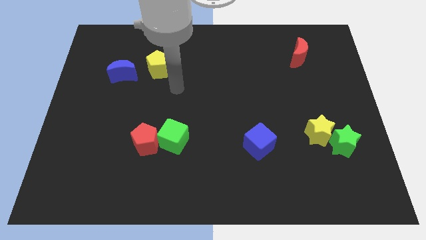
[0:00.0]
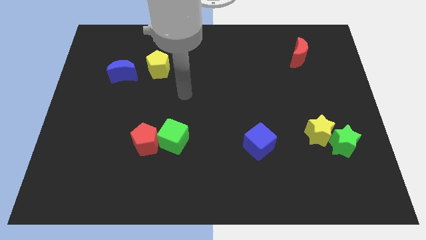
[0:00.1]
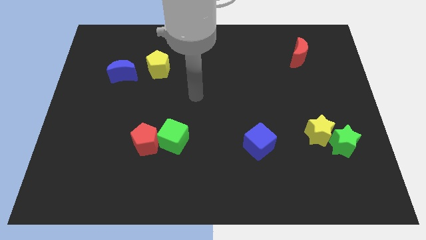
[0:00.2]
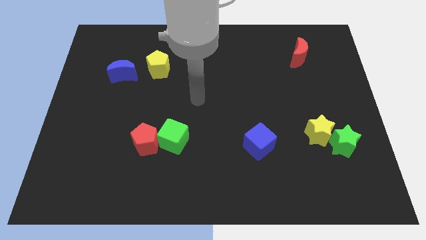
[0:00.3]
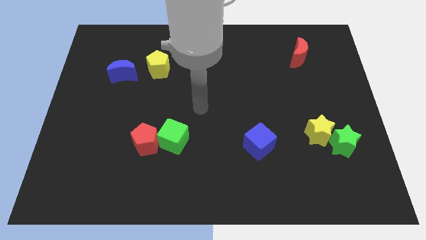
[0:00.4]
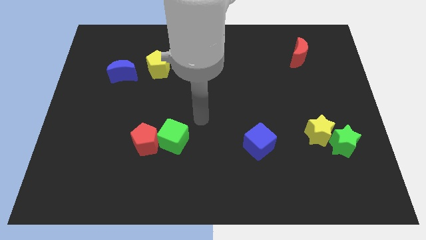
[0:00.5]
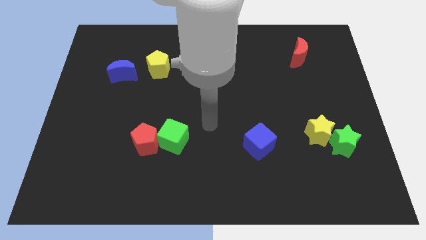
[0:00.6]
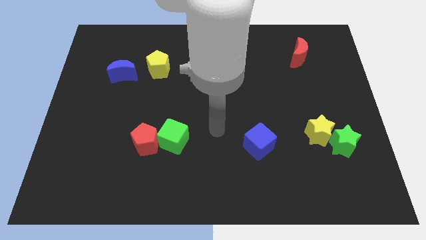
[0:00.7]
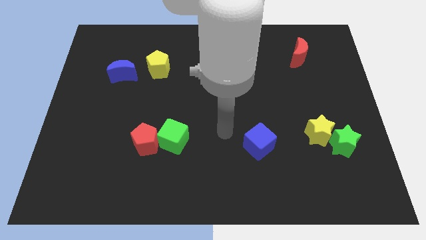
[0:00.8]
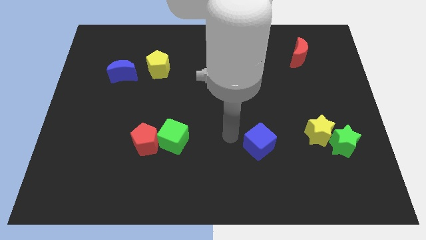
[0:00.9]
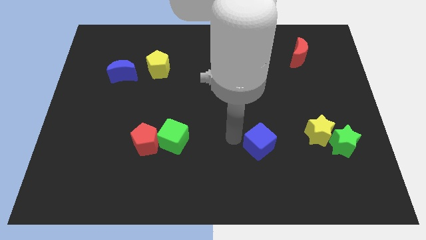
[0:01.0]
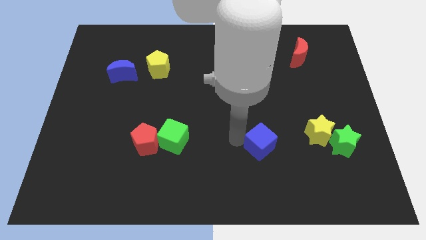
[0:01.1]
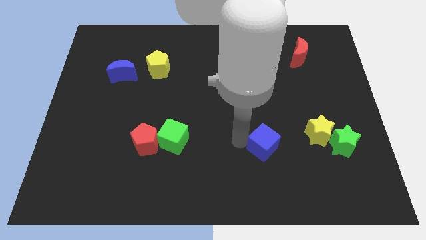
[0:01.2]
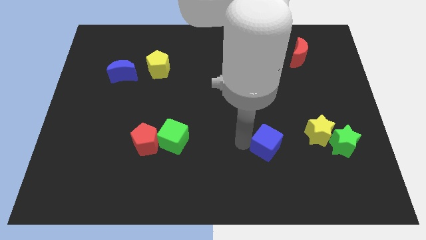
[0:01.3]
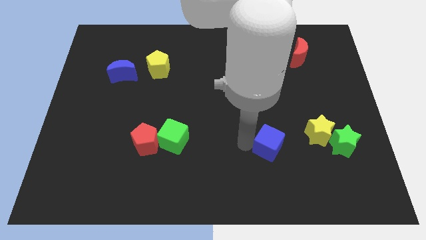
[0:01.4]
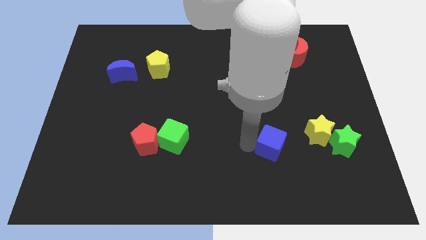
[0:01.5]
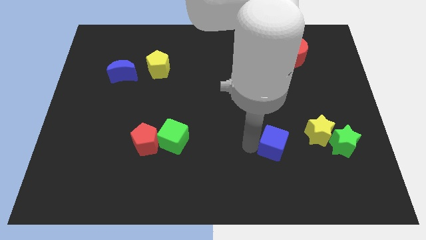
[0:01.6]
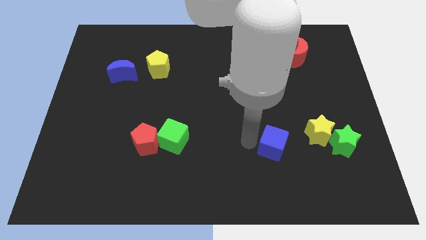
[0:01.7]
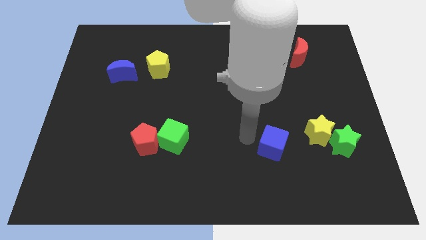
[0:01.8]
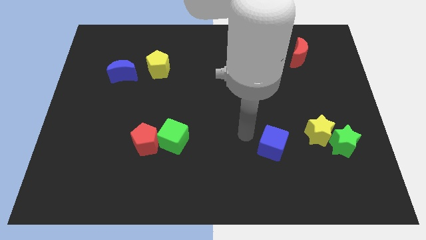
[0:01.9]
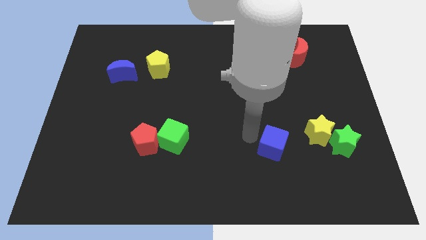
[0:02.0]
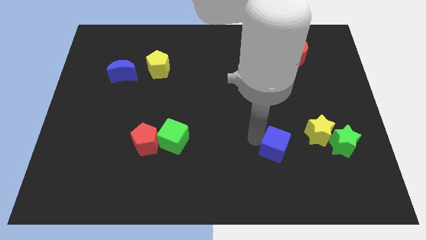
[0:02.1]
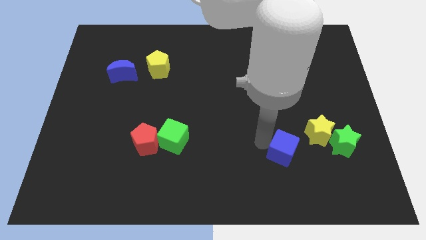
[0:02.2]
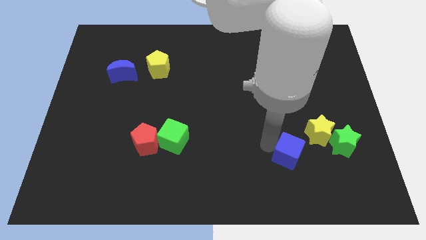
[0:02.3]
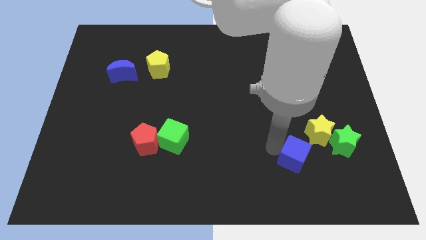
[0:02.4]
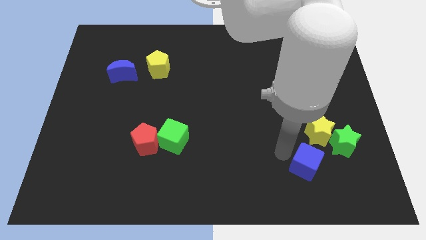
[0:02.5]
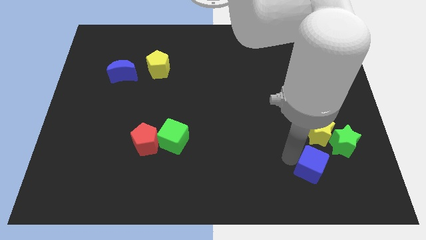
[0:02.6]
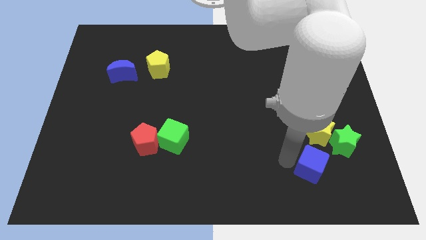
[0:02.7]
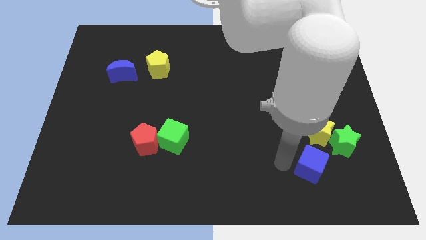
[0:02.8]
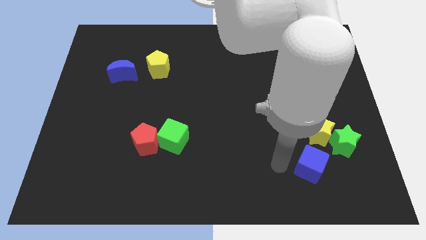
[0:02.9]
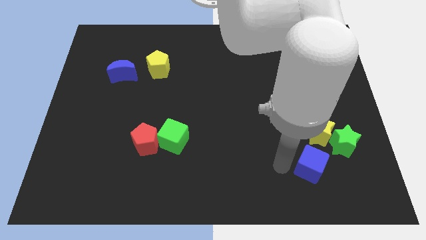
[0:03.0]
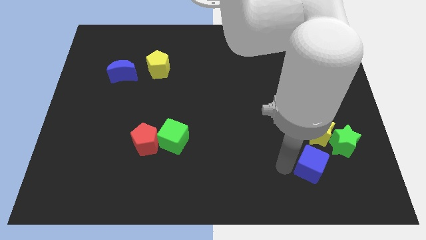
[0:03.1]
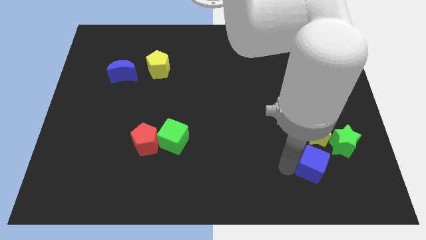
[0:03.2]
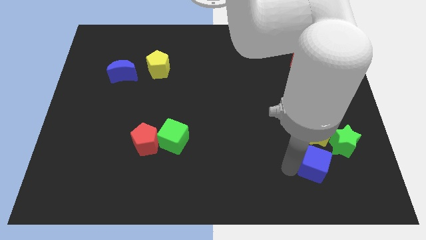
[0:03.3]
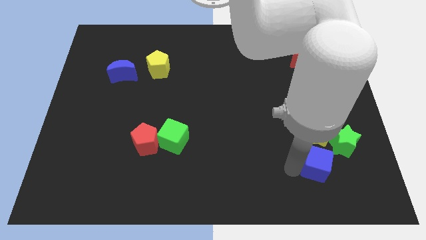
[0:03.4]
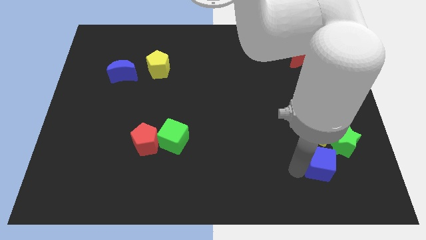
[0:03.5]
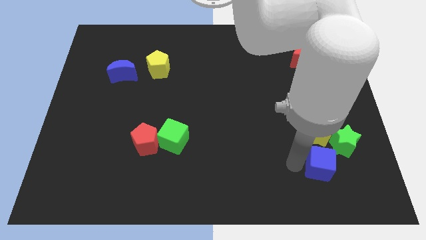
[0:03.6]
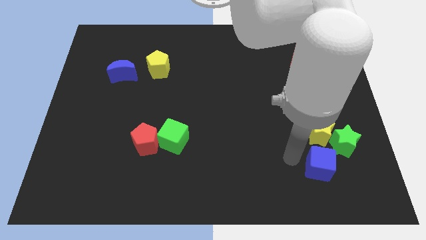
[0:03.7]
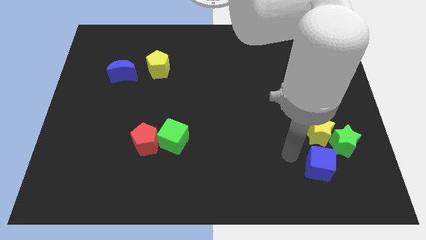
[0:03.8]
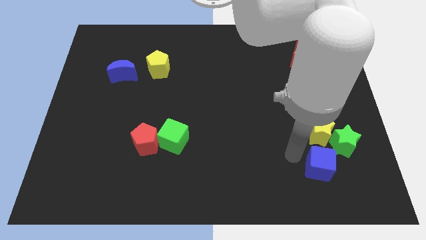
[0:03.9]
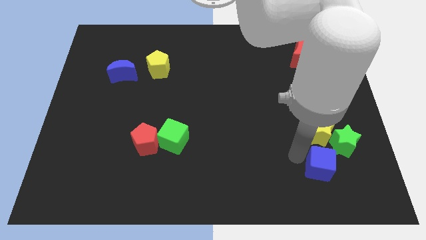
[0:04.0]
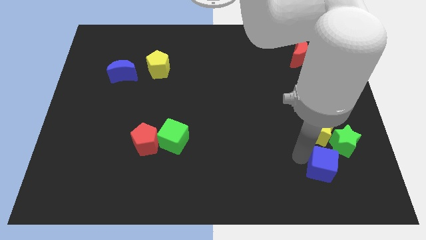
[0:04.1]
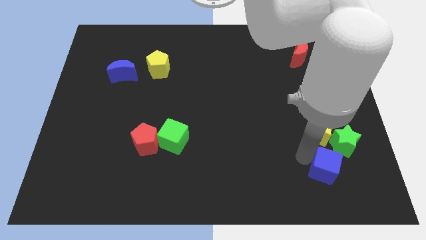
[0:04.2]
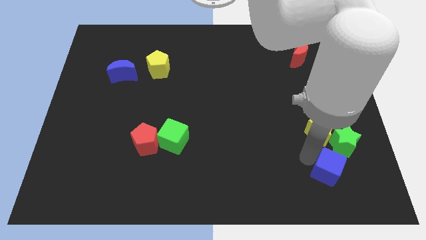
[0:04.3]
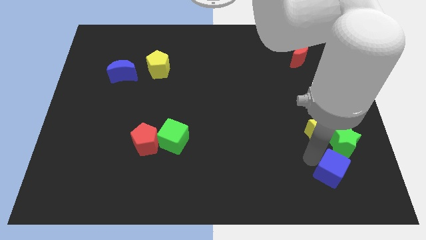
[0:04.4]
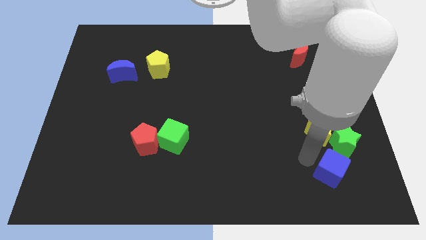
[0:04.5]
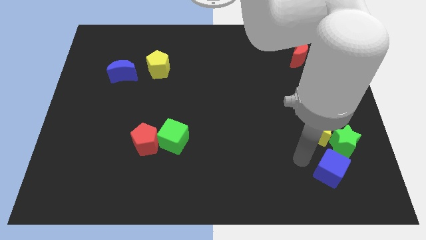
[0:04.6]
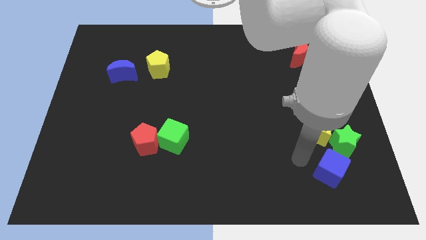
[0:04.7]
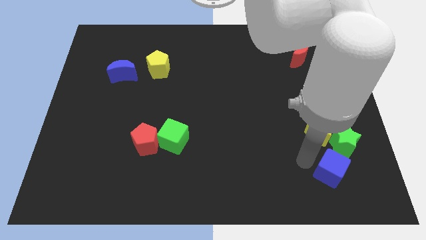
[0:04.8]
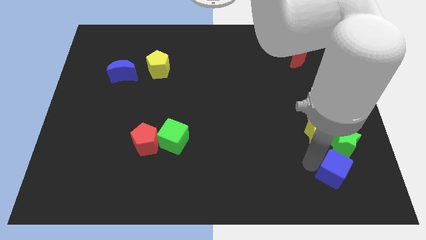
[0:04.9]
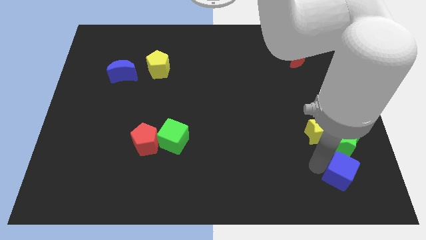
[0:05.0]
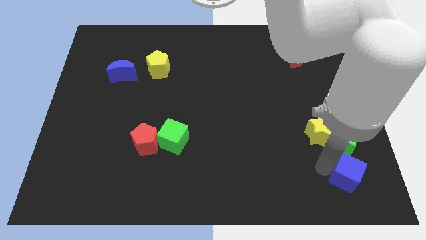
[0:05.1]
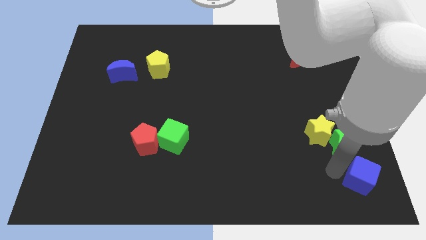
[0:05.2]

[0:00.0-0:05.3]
put the blue cube to the bottom right corner
